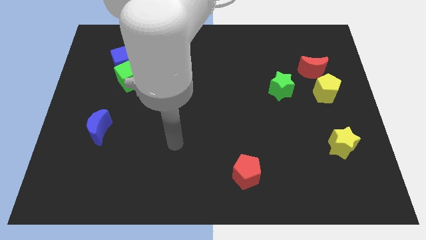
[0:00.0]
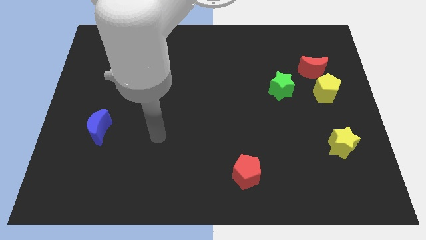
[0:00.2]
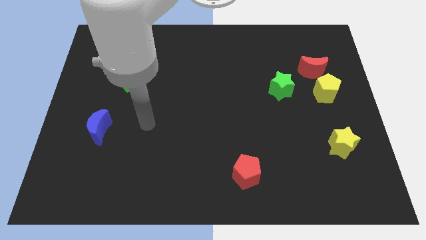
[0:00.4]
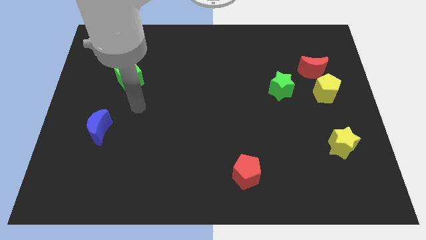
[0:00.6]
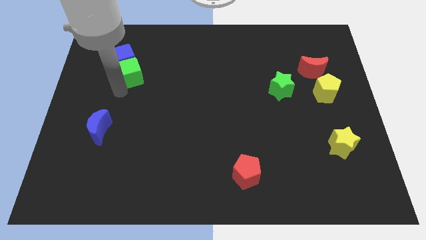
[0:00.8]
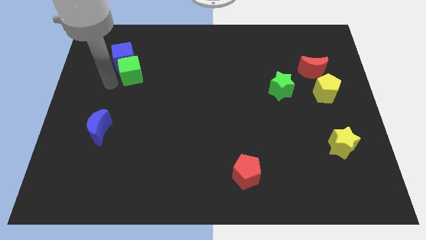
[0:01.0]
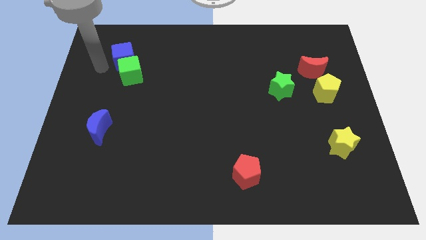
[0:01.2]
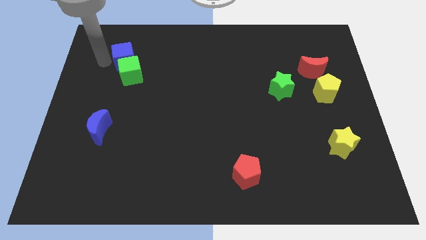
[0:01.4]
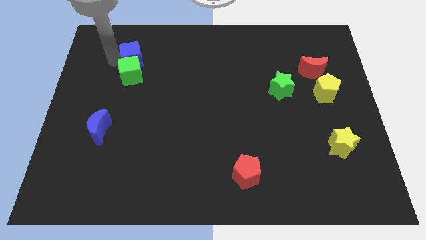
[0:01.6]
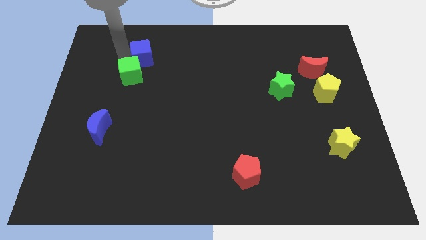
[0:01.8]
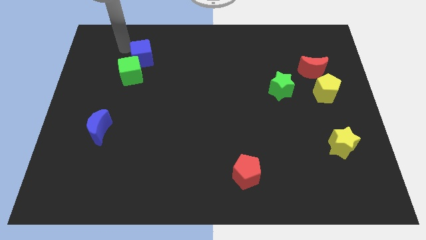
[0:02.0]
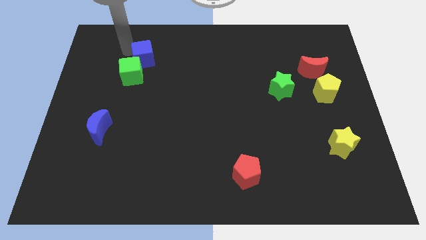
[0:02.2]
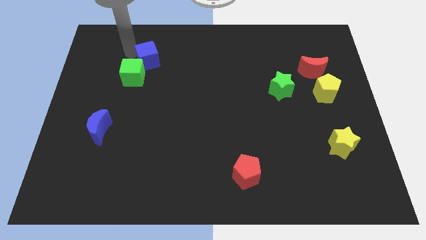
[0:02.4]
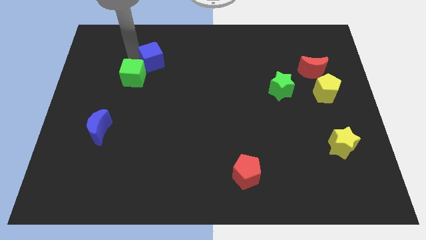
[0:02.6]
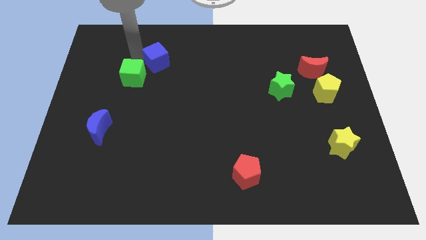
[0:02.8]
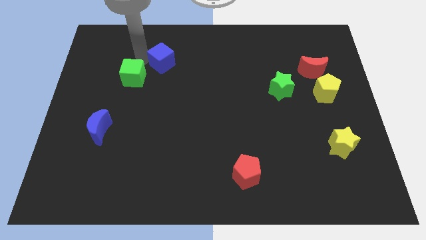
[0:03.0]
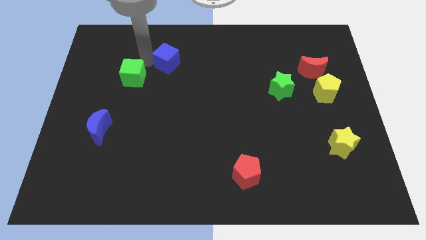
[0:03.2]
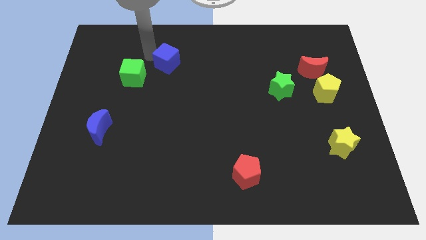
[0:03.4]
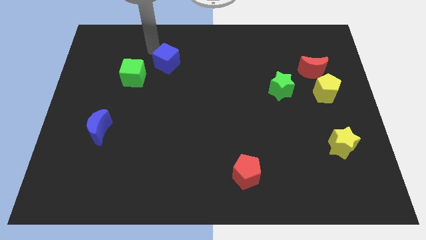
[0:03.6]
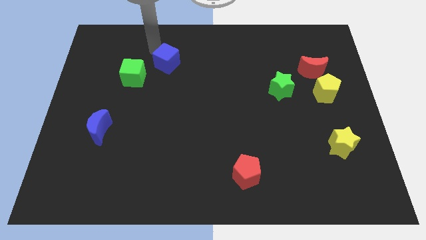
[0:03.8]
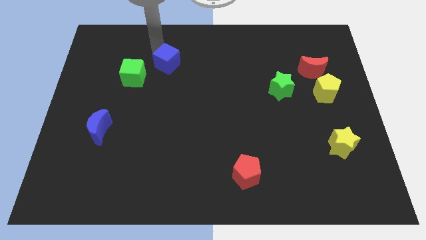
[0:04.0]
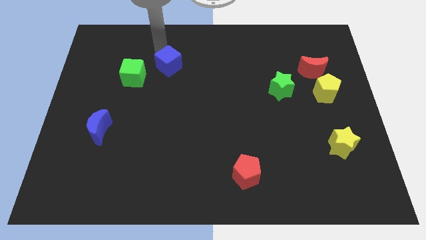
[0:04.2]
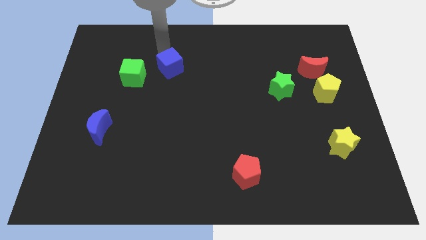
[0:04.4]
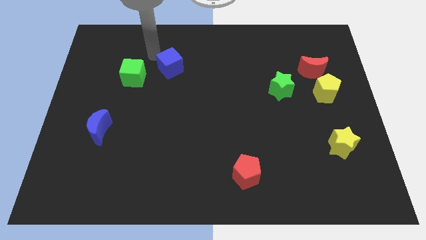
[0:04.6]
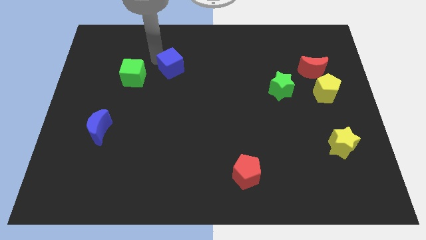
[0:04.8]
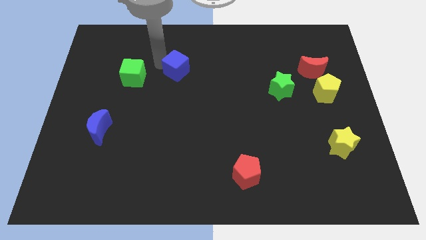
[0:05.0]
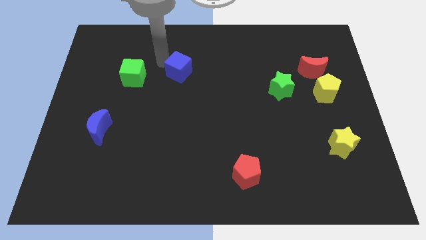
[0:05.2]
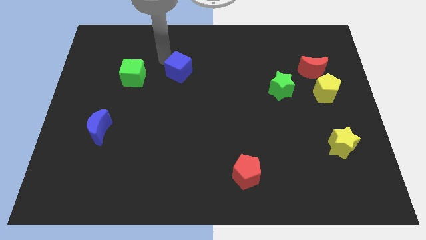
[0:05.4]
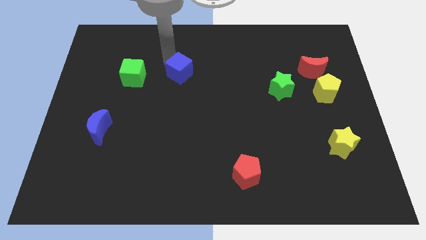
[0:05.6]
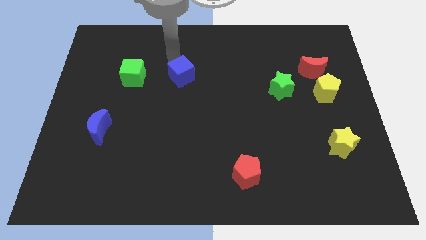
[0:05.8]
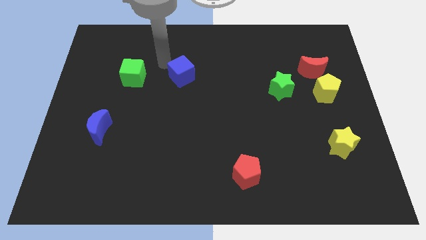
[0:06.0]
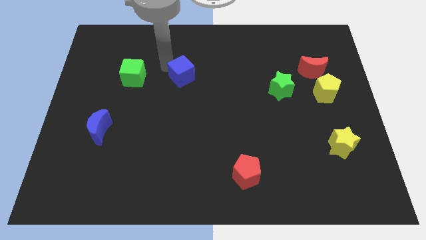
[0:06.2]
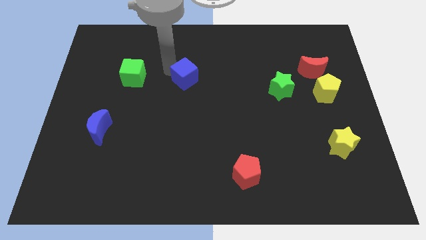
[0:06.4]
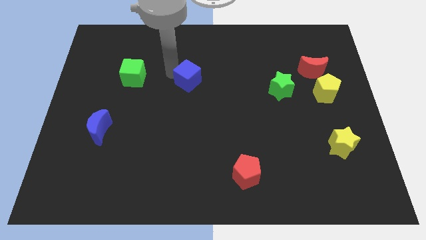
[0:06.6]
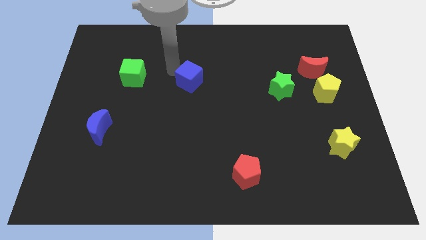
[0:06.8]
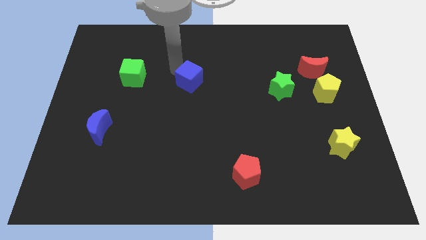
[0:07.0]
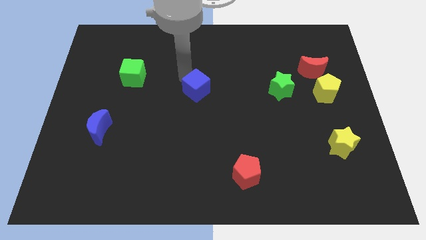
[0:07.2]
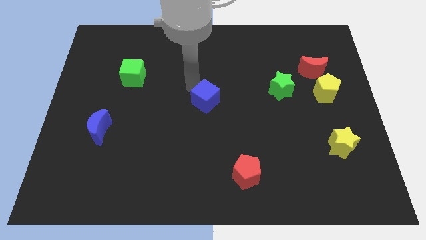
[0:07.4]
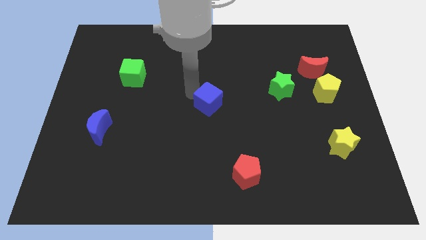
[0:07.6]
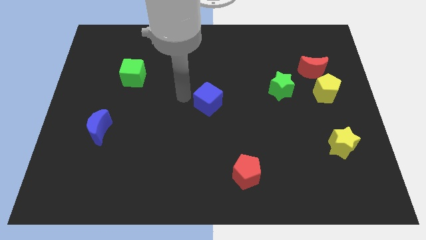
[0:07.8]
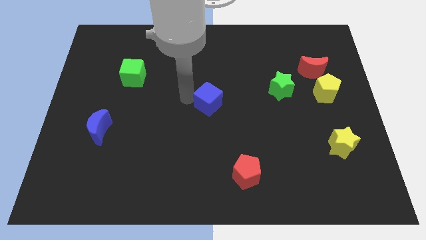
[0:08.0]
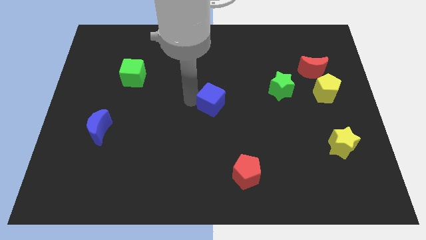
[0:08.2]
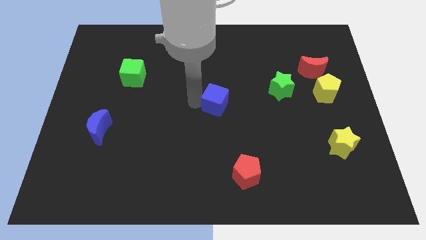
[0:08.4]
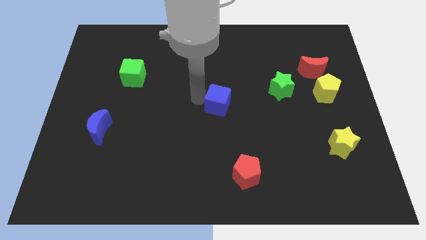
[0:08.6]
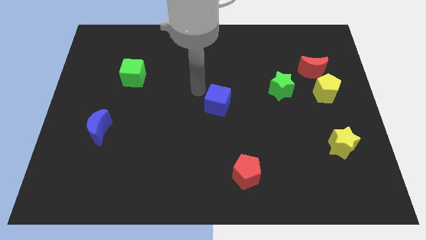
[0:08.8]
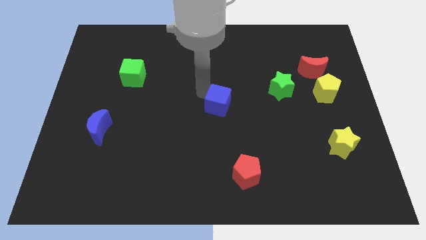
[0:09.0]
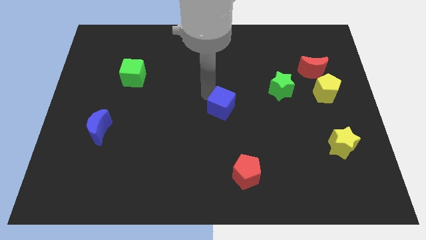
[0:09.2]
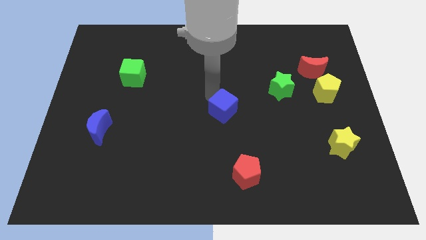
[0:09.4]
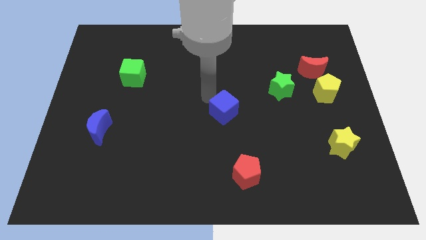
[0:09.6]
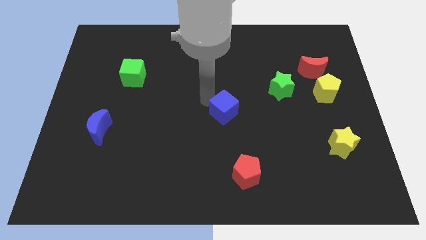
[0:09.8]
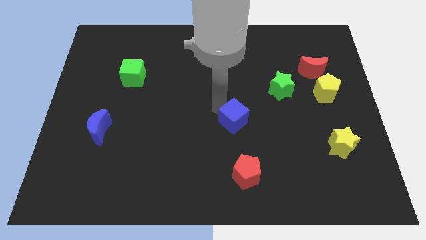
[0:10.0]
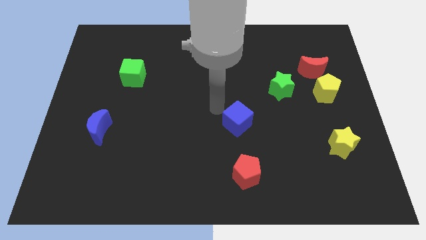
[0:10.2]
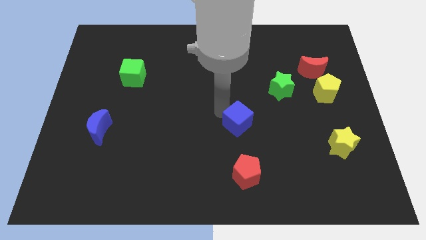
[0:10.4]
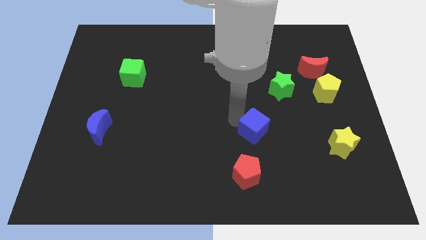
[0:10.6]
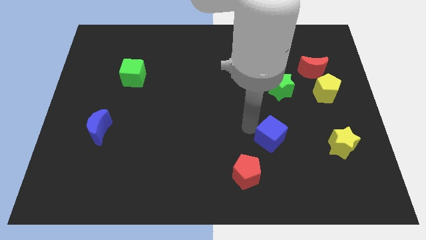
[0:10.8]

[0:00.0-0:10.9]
slide the blue cube left of the yellow star

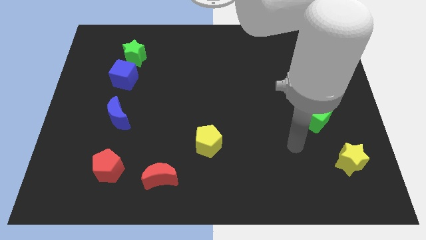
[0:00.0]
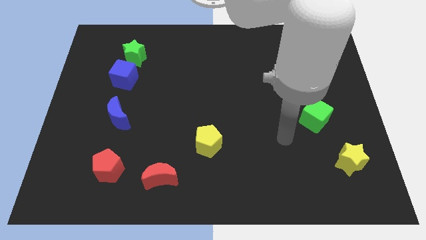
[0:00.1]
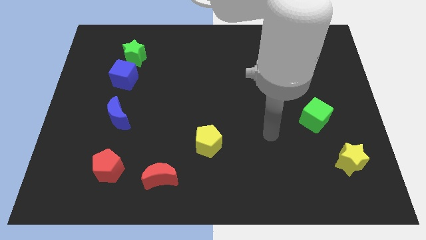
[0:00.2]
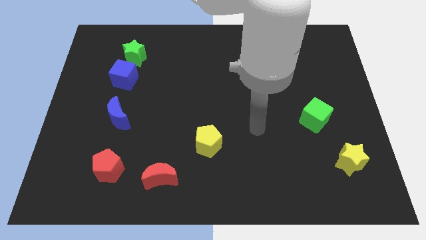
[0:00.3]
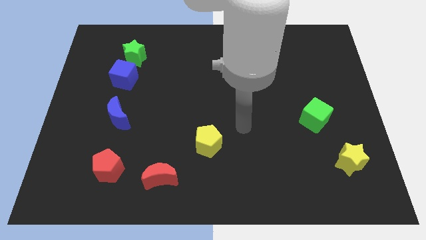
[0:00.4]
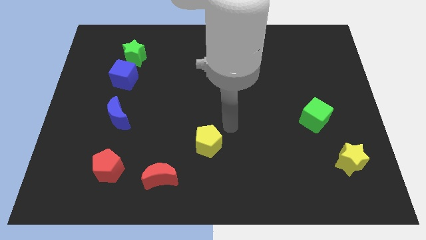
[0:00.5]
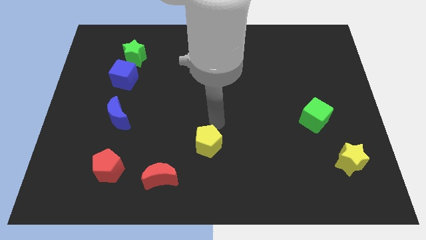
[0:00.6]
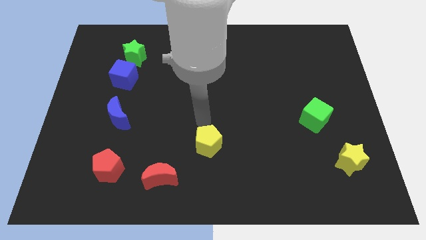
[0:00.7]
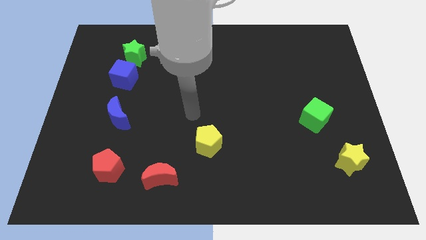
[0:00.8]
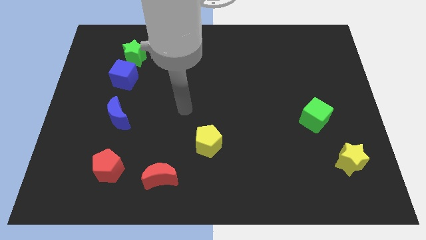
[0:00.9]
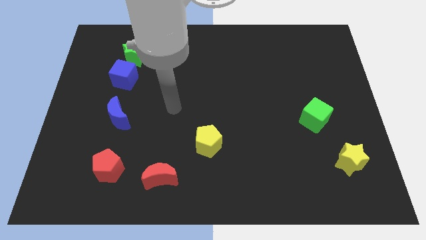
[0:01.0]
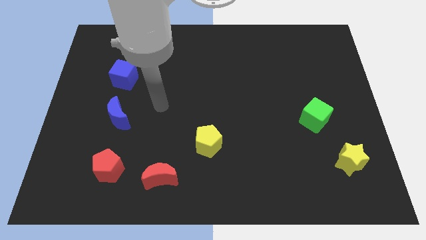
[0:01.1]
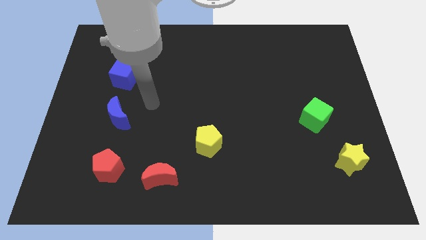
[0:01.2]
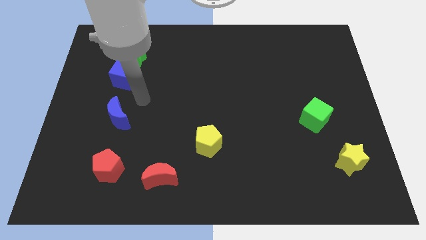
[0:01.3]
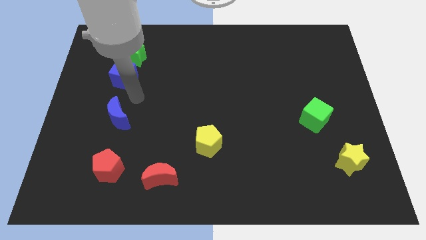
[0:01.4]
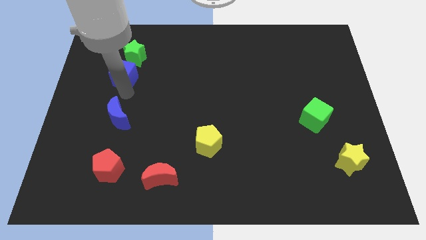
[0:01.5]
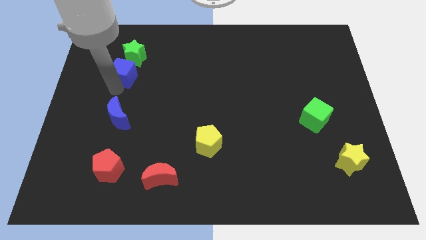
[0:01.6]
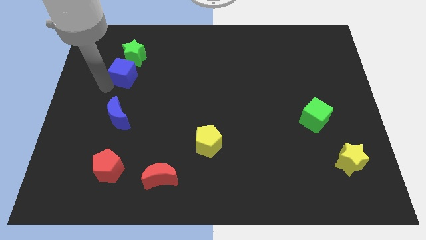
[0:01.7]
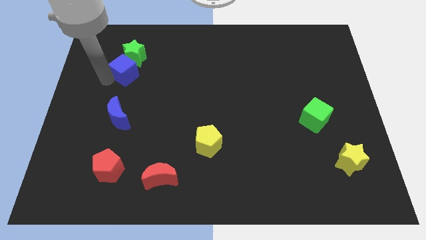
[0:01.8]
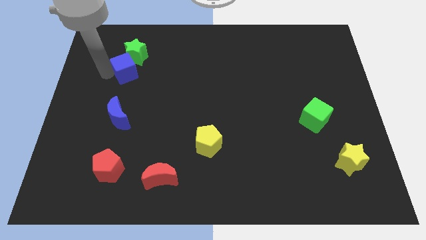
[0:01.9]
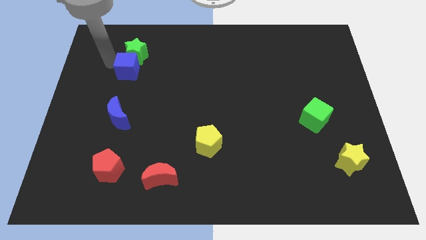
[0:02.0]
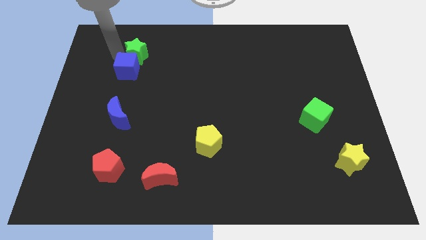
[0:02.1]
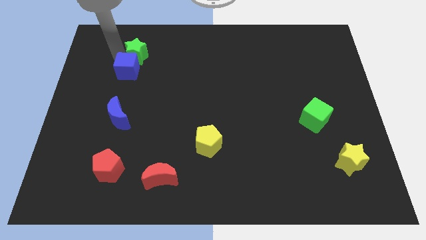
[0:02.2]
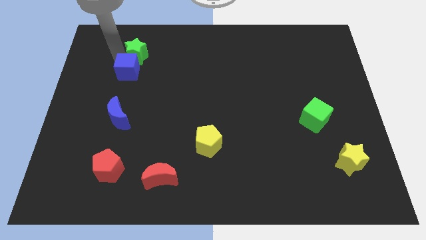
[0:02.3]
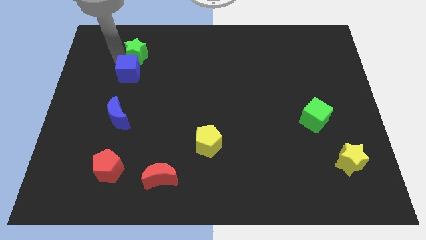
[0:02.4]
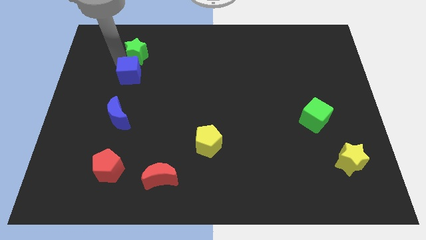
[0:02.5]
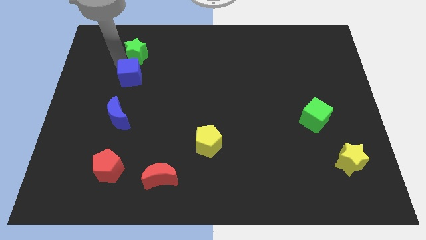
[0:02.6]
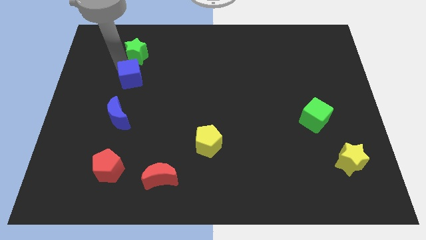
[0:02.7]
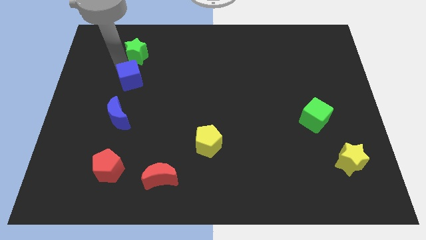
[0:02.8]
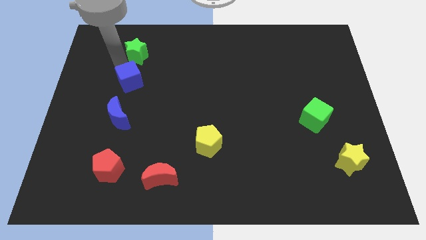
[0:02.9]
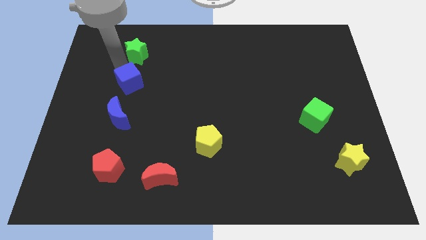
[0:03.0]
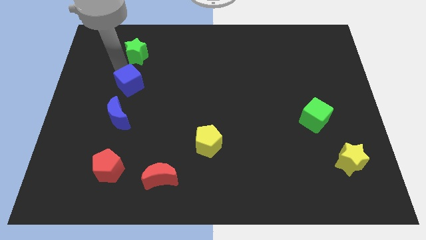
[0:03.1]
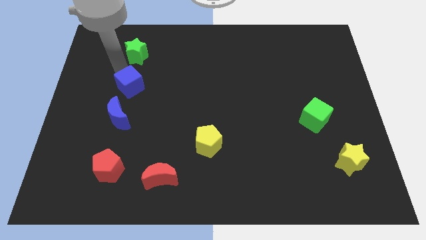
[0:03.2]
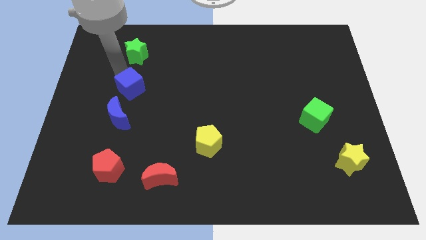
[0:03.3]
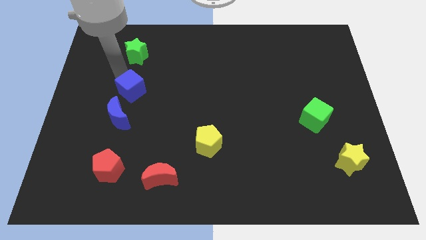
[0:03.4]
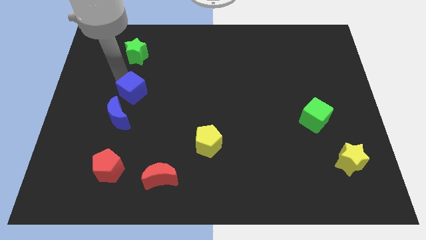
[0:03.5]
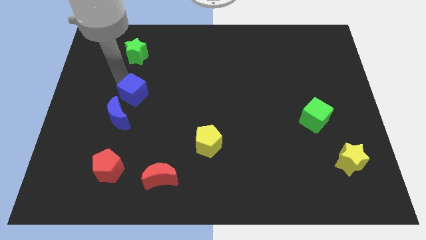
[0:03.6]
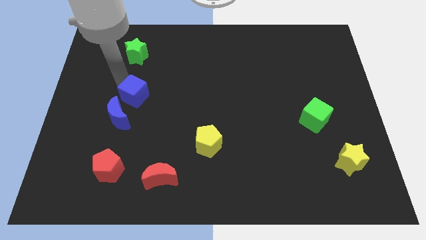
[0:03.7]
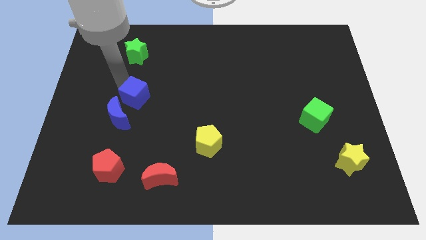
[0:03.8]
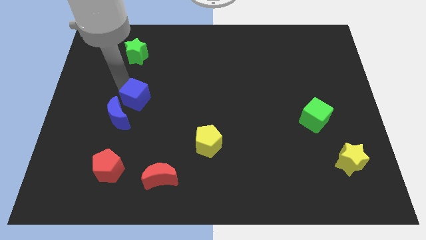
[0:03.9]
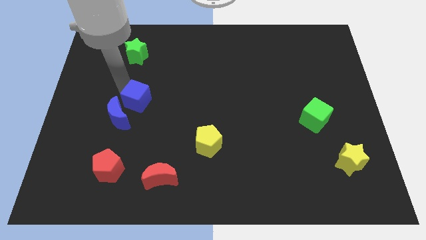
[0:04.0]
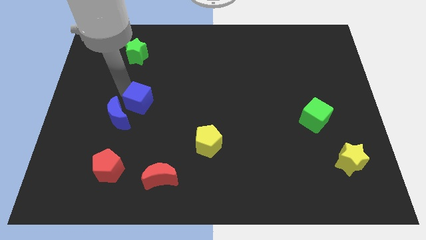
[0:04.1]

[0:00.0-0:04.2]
put the blue cube just right of the blue moon
